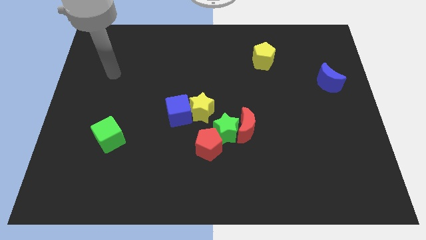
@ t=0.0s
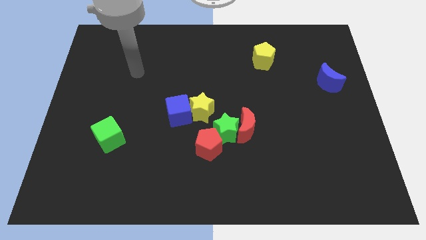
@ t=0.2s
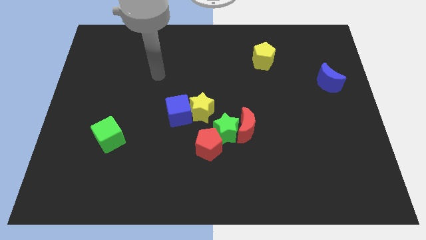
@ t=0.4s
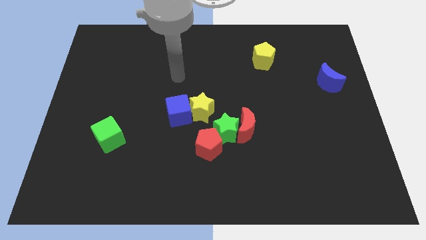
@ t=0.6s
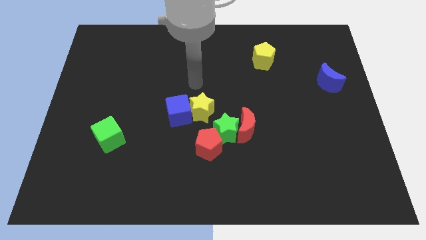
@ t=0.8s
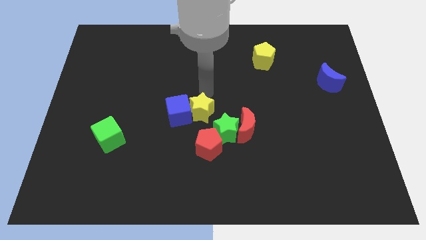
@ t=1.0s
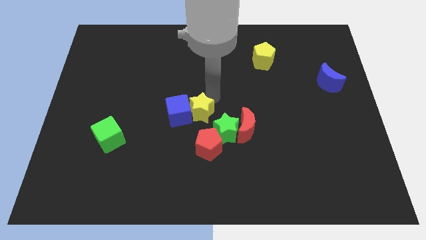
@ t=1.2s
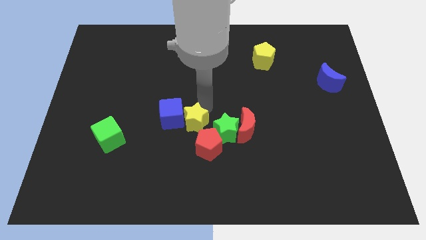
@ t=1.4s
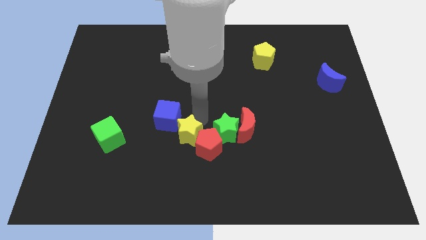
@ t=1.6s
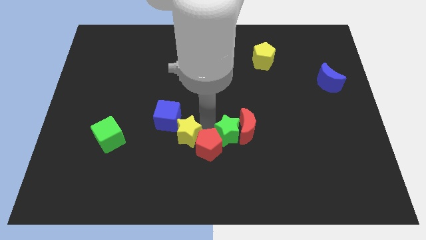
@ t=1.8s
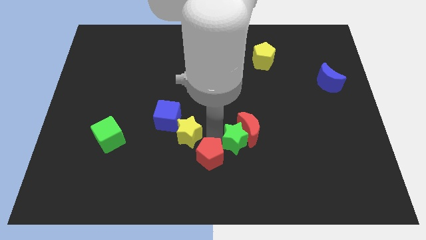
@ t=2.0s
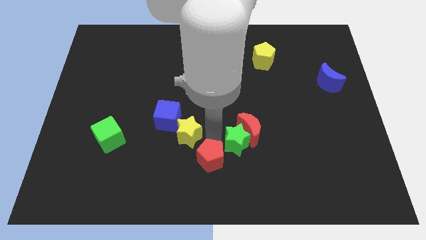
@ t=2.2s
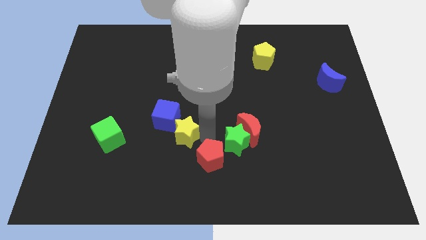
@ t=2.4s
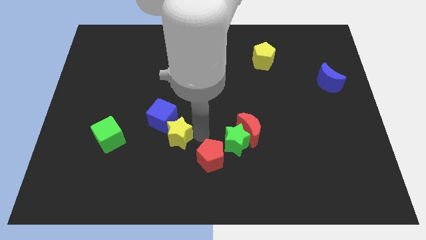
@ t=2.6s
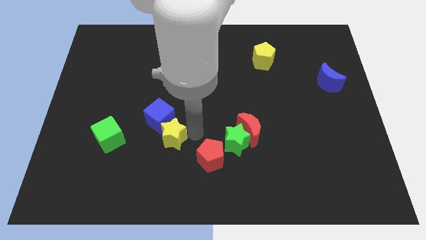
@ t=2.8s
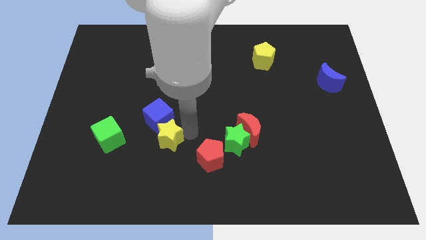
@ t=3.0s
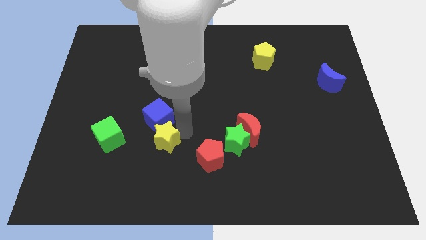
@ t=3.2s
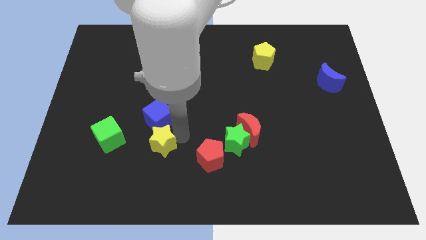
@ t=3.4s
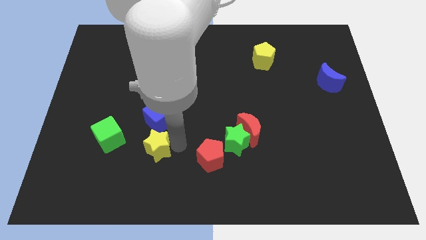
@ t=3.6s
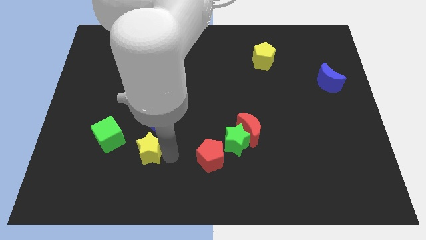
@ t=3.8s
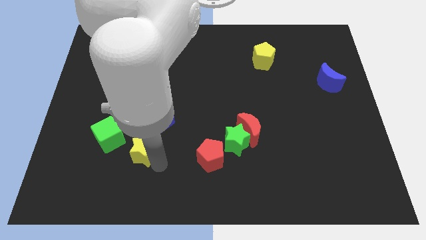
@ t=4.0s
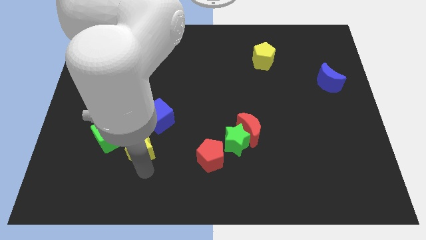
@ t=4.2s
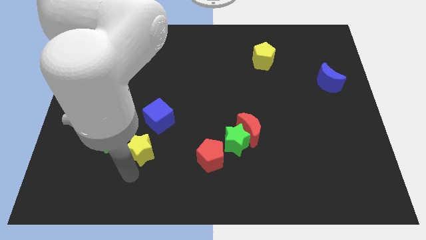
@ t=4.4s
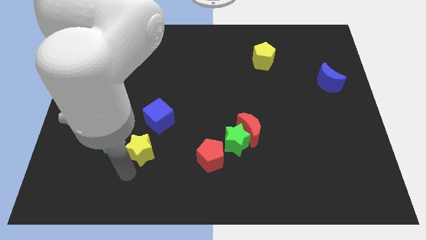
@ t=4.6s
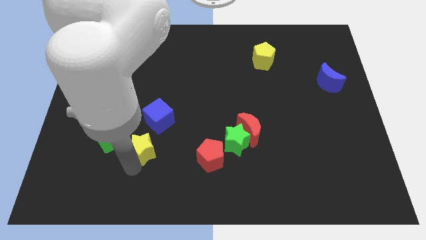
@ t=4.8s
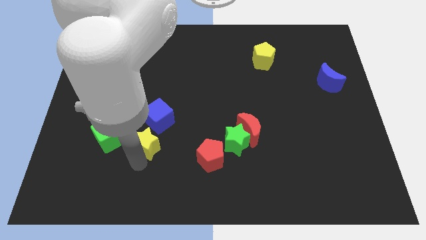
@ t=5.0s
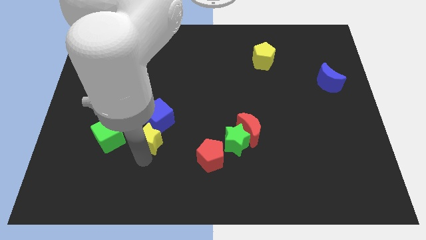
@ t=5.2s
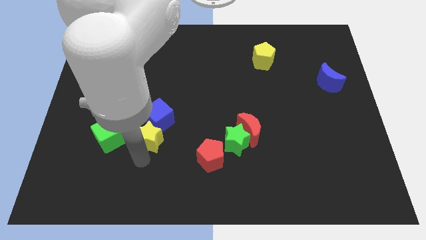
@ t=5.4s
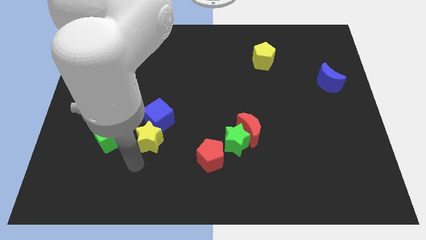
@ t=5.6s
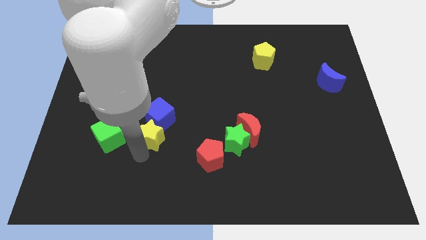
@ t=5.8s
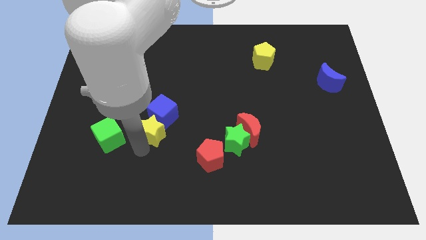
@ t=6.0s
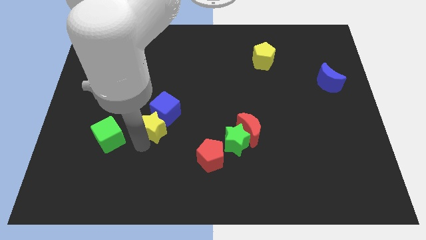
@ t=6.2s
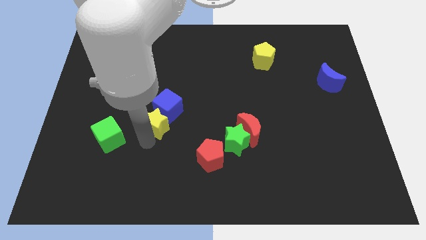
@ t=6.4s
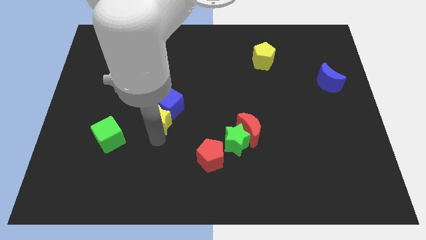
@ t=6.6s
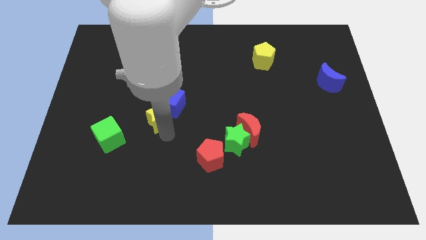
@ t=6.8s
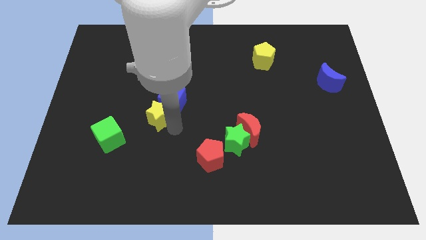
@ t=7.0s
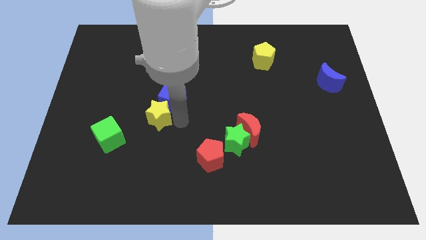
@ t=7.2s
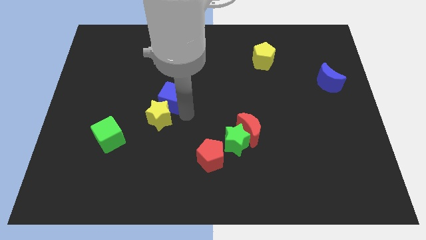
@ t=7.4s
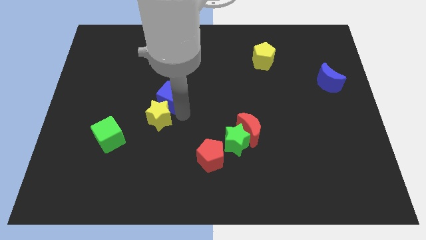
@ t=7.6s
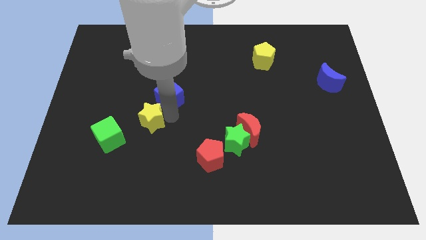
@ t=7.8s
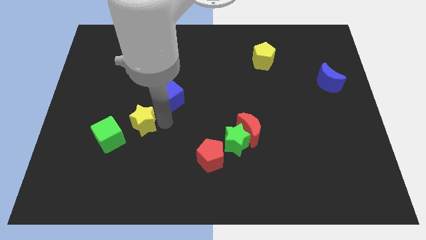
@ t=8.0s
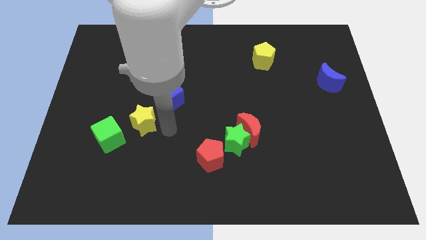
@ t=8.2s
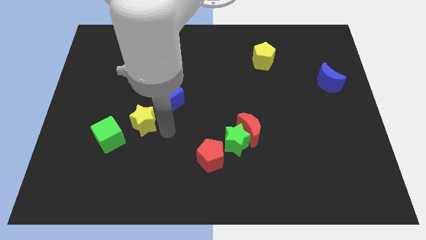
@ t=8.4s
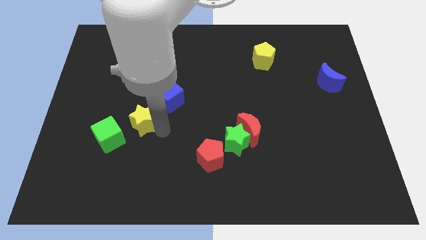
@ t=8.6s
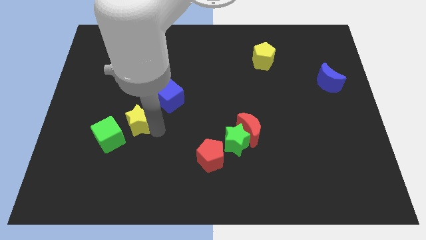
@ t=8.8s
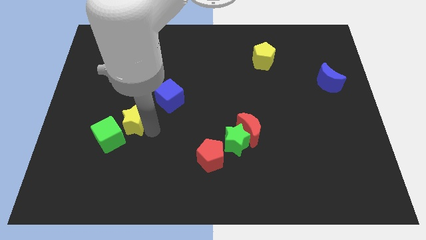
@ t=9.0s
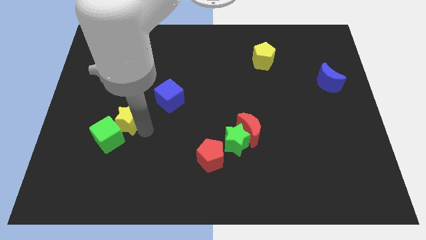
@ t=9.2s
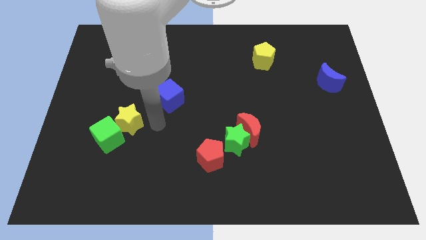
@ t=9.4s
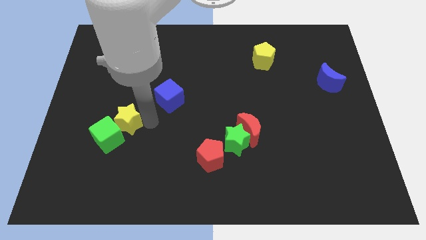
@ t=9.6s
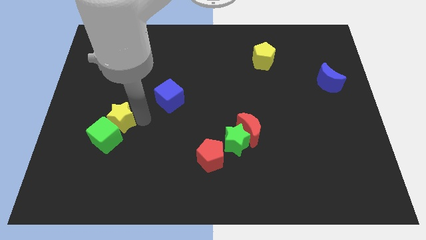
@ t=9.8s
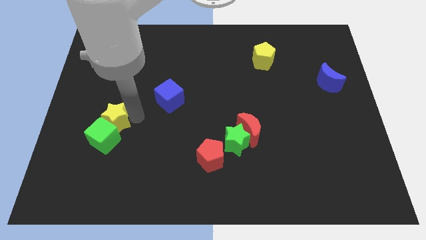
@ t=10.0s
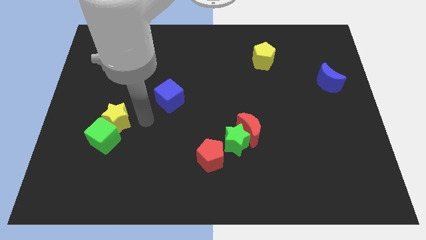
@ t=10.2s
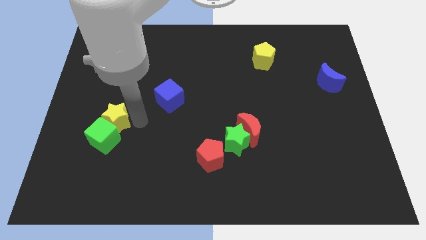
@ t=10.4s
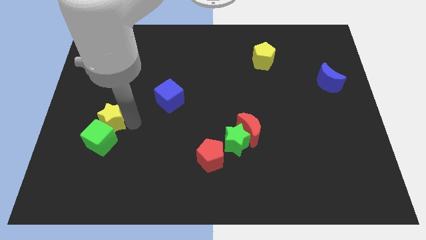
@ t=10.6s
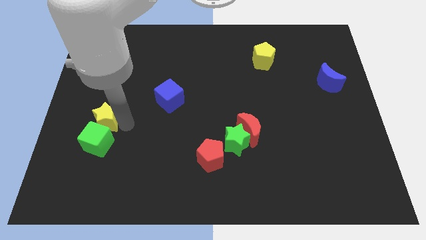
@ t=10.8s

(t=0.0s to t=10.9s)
move the yellow star to the top left side of the green cube

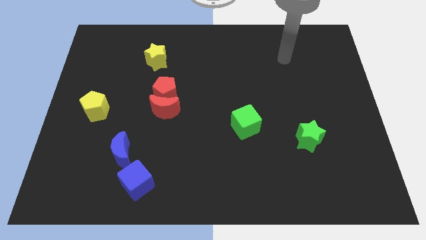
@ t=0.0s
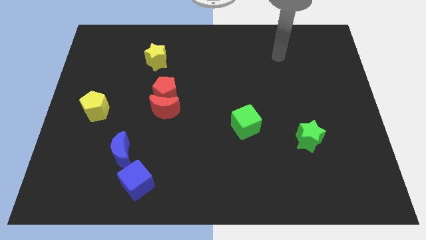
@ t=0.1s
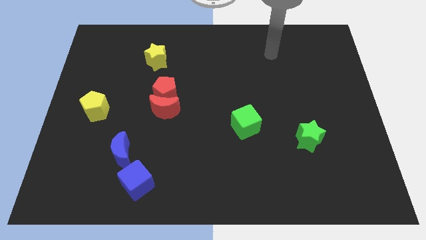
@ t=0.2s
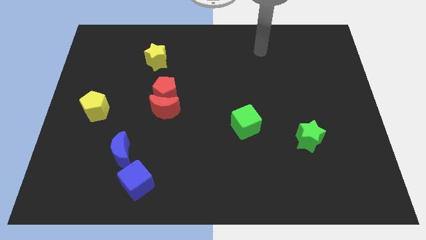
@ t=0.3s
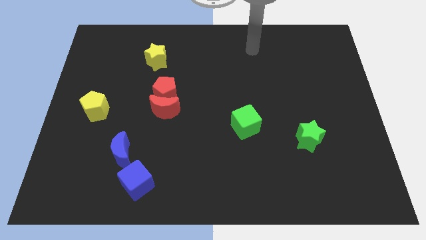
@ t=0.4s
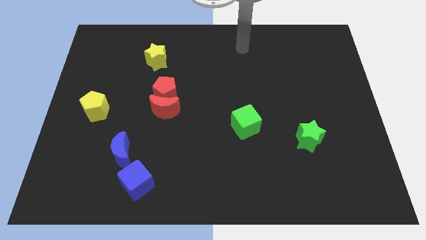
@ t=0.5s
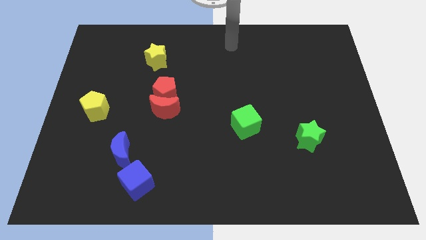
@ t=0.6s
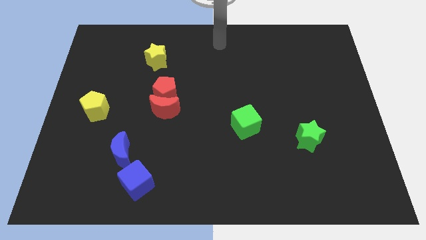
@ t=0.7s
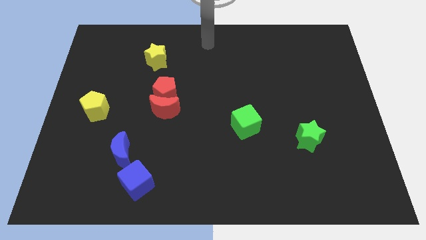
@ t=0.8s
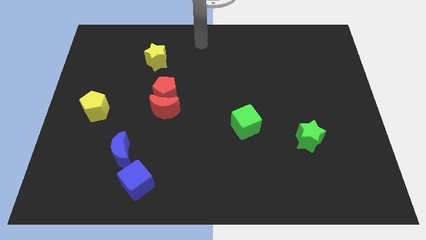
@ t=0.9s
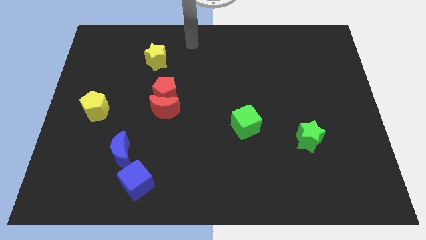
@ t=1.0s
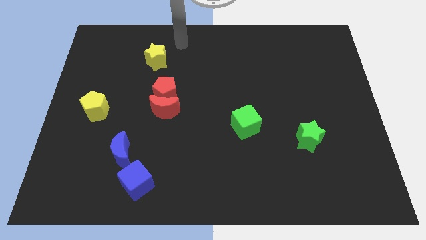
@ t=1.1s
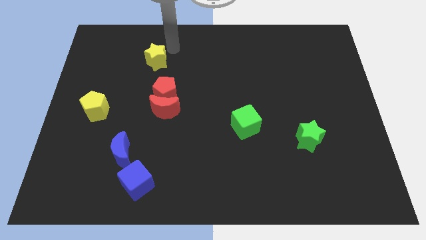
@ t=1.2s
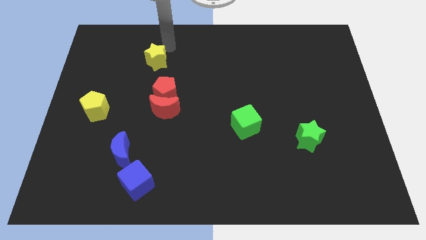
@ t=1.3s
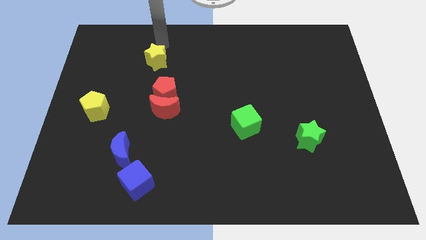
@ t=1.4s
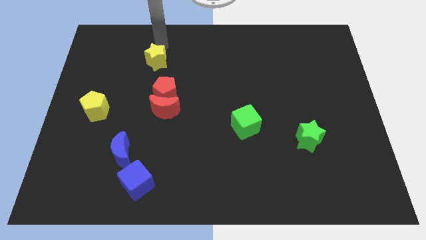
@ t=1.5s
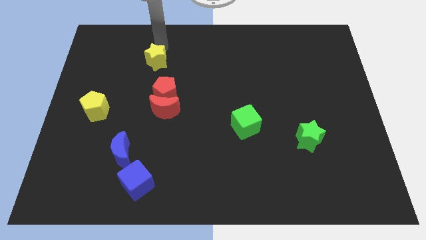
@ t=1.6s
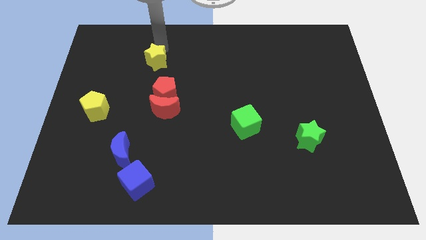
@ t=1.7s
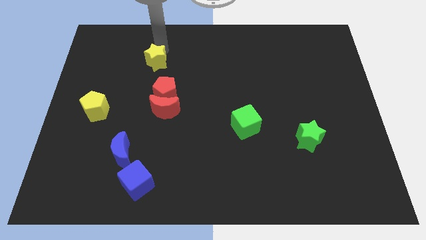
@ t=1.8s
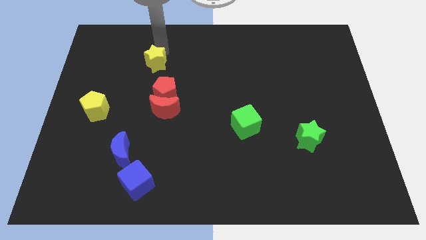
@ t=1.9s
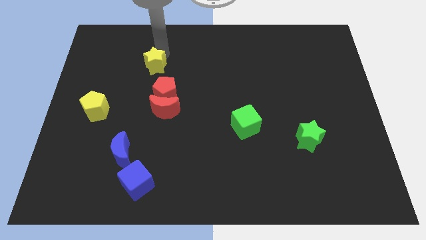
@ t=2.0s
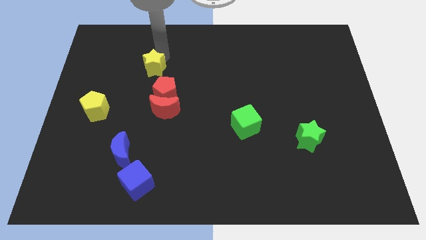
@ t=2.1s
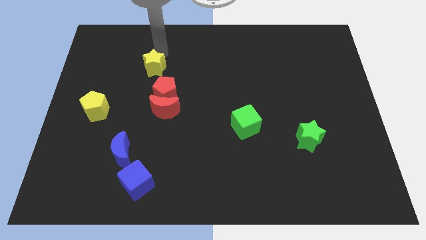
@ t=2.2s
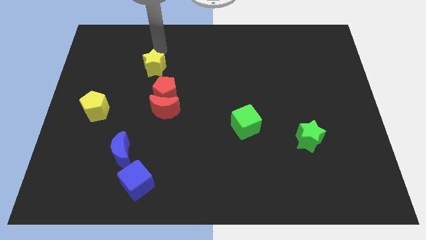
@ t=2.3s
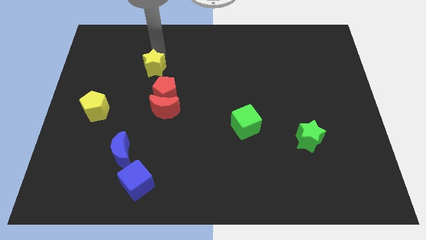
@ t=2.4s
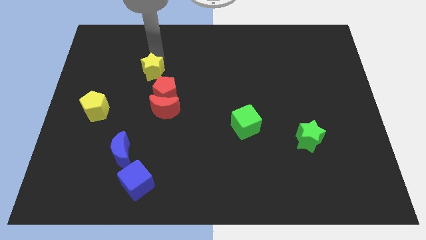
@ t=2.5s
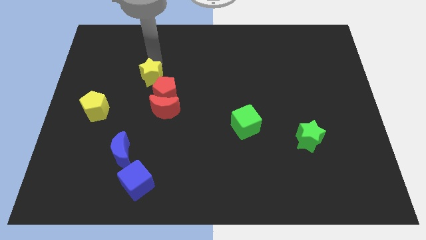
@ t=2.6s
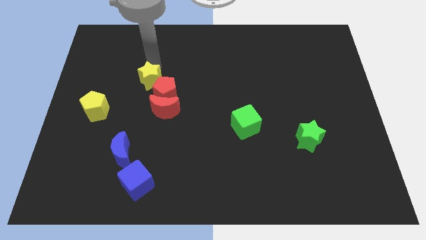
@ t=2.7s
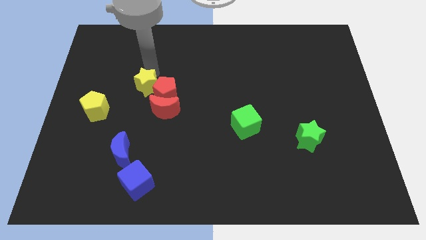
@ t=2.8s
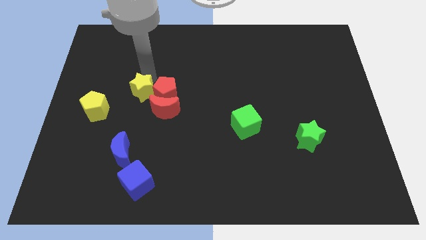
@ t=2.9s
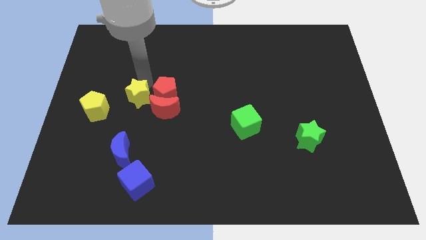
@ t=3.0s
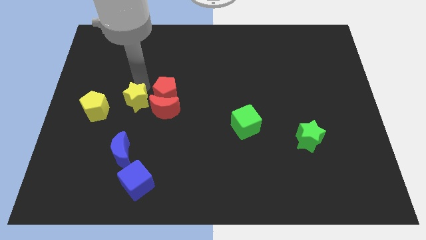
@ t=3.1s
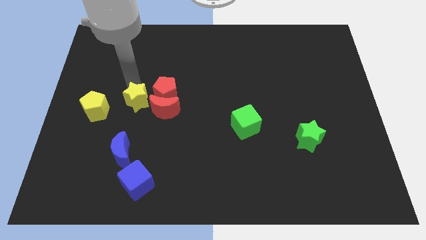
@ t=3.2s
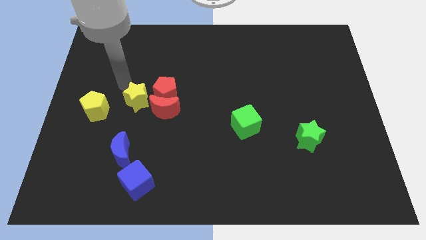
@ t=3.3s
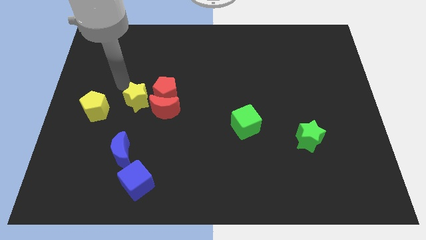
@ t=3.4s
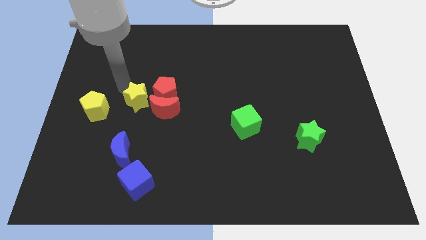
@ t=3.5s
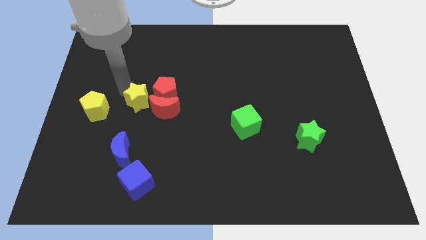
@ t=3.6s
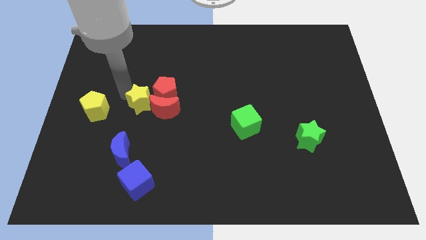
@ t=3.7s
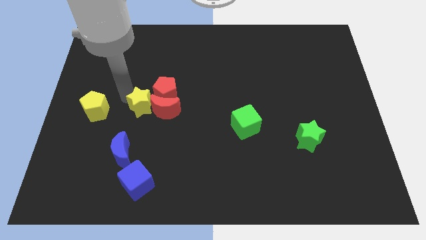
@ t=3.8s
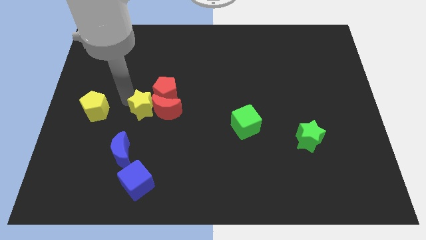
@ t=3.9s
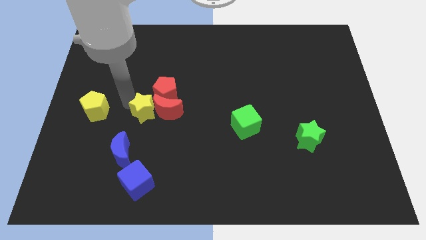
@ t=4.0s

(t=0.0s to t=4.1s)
slide the yellow star below the red pentagon
